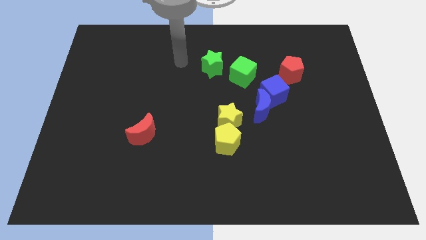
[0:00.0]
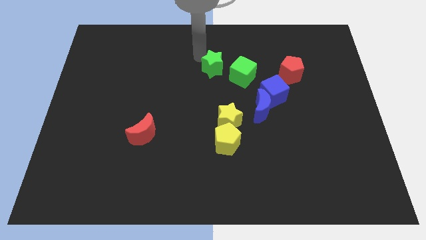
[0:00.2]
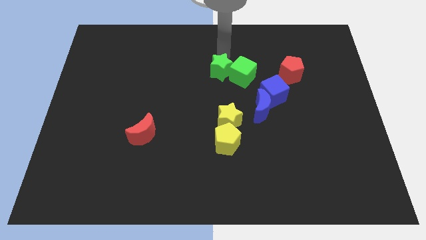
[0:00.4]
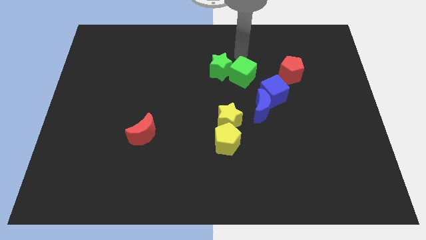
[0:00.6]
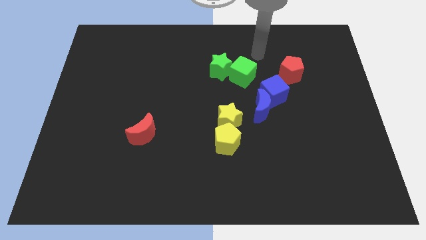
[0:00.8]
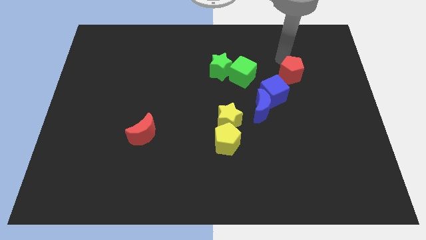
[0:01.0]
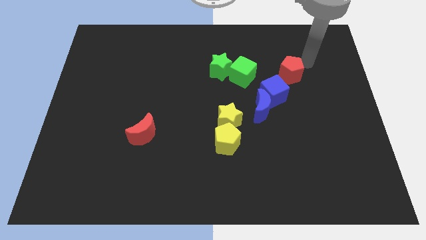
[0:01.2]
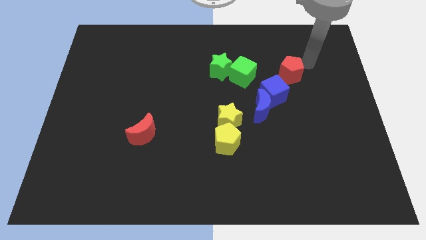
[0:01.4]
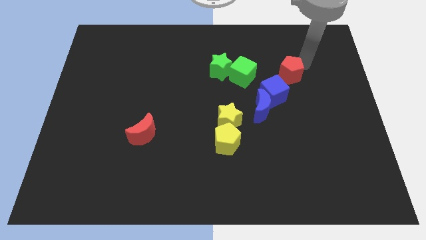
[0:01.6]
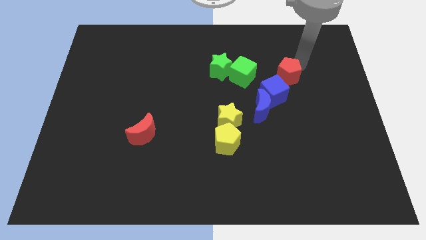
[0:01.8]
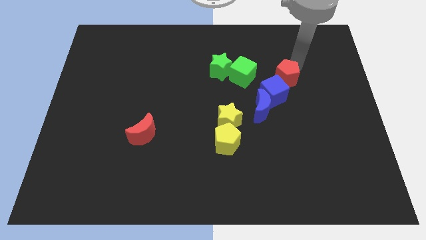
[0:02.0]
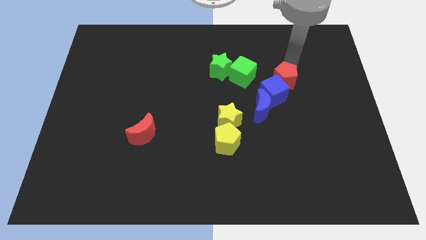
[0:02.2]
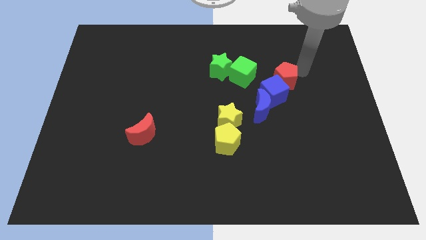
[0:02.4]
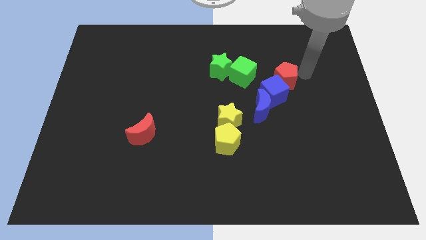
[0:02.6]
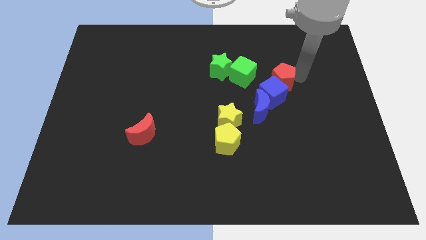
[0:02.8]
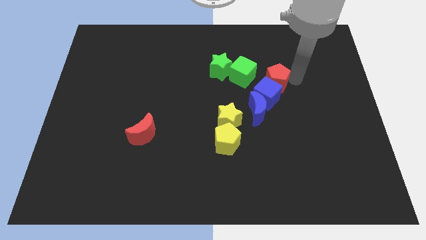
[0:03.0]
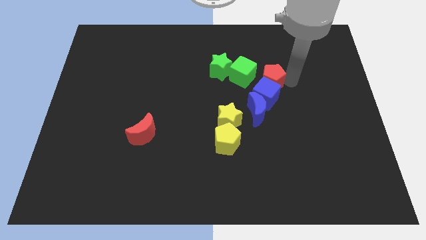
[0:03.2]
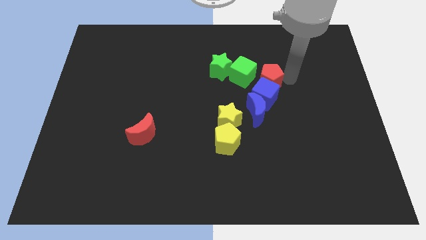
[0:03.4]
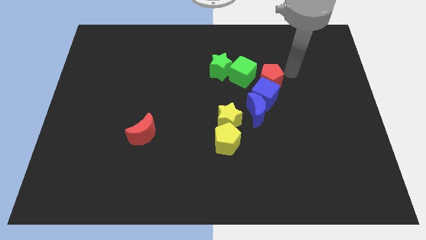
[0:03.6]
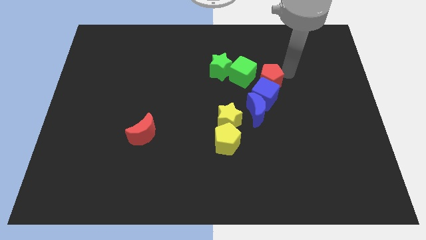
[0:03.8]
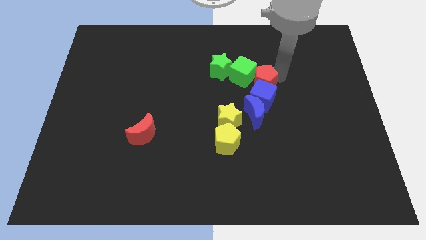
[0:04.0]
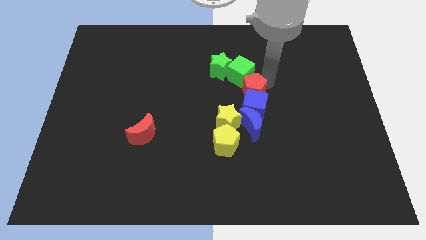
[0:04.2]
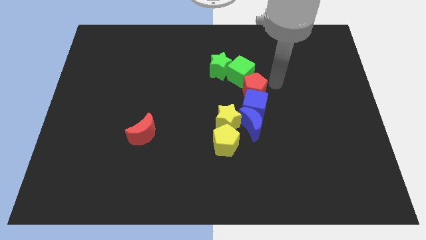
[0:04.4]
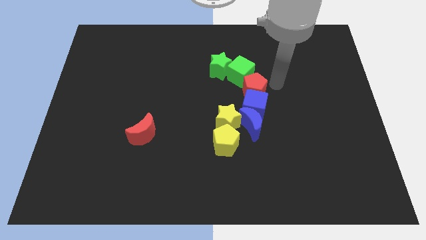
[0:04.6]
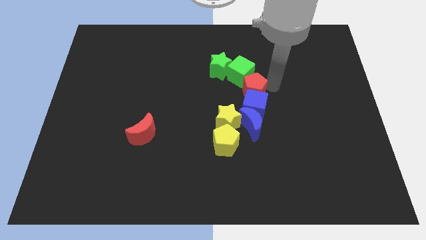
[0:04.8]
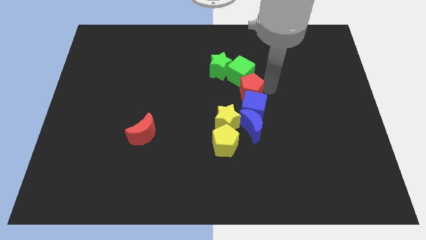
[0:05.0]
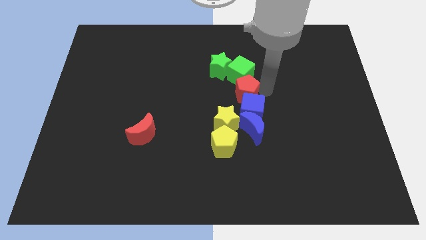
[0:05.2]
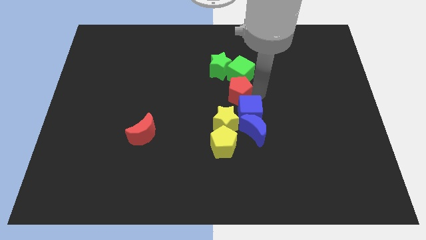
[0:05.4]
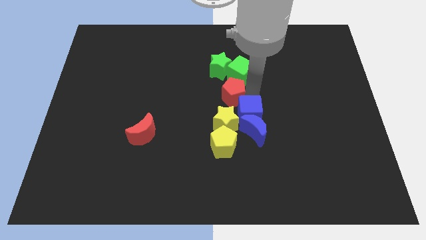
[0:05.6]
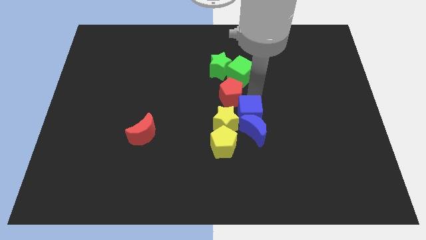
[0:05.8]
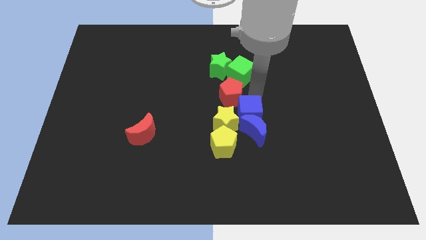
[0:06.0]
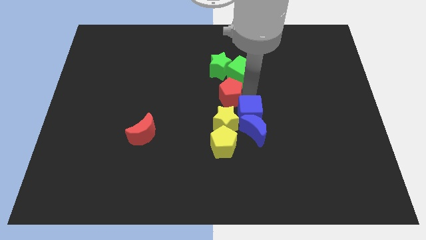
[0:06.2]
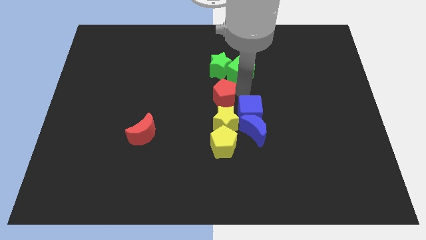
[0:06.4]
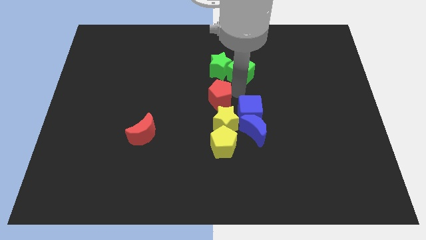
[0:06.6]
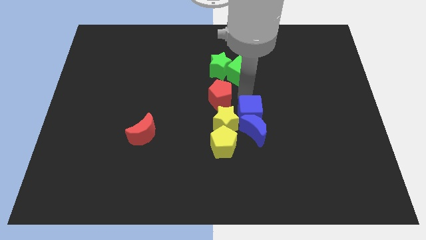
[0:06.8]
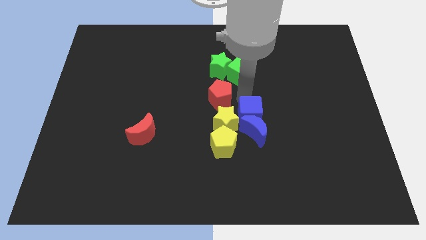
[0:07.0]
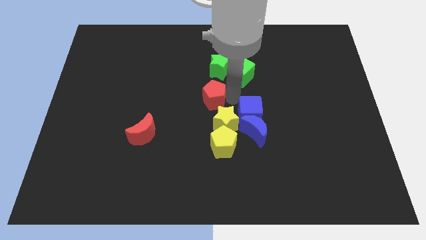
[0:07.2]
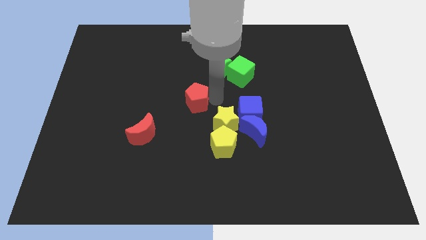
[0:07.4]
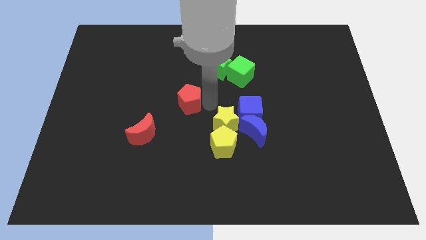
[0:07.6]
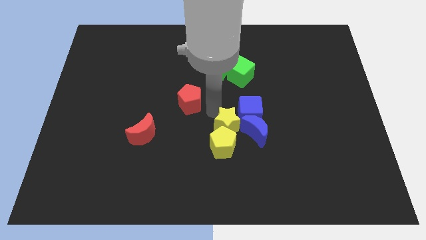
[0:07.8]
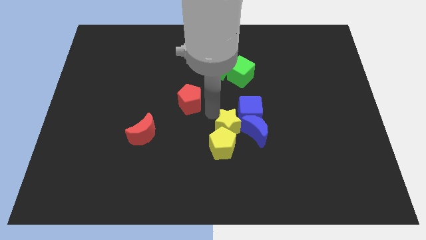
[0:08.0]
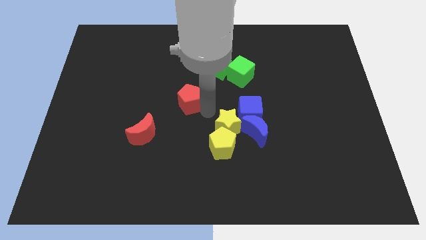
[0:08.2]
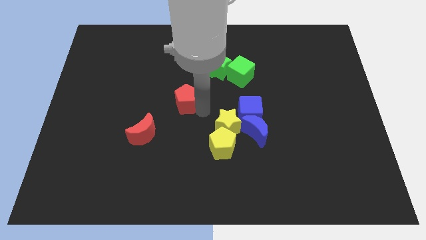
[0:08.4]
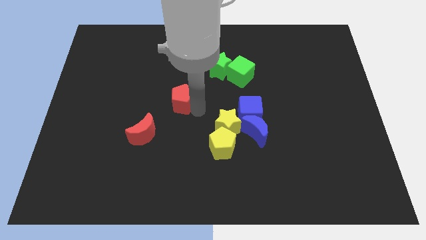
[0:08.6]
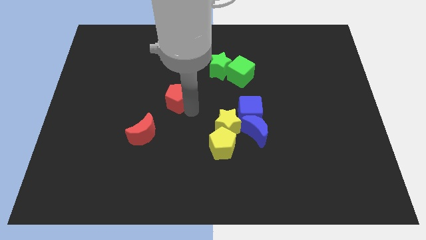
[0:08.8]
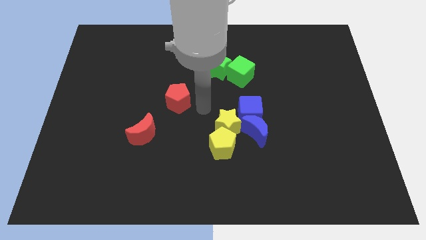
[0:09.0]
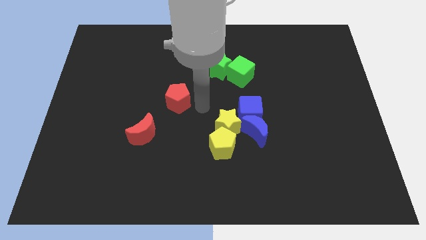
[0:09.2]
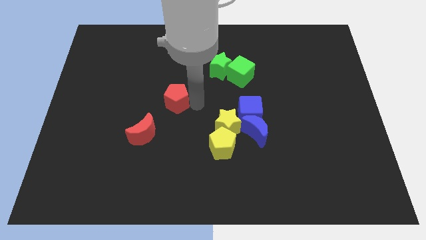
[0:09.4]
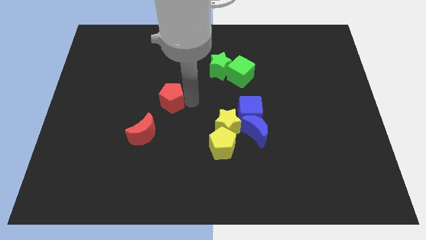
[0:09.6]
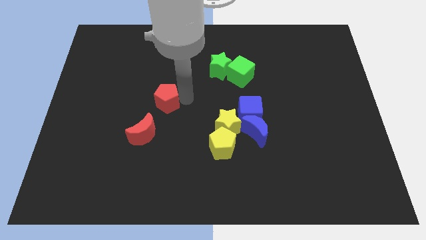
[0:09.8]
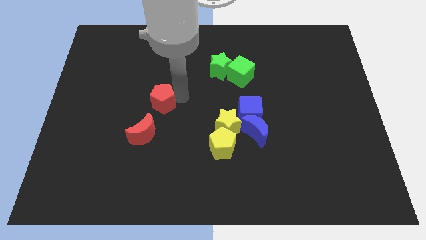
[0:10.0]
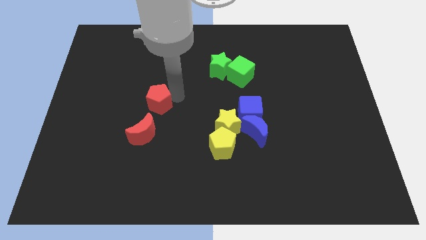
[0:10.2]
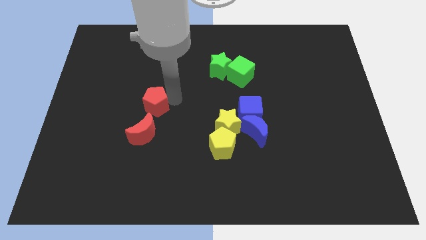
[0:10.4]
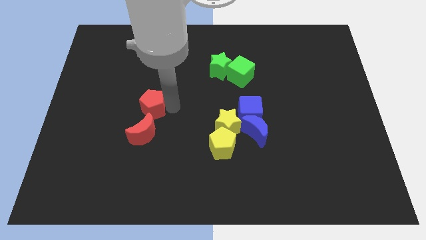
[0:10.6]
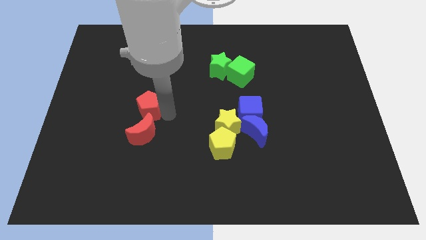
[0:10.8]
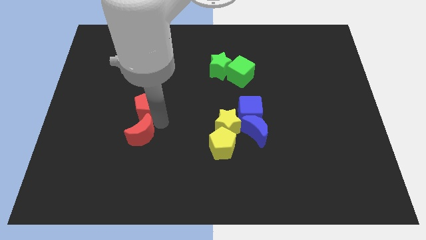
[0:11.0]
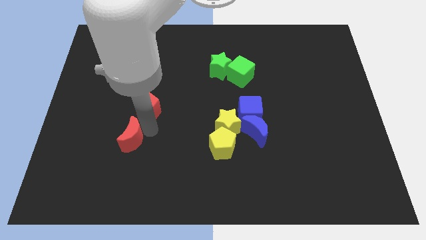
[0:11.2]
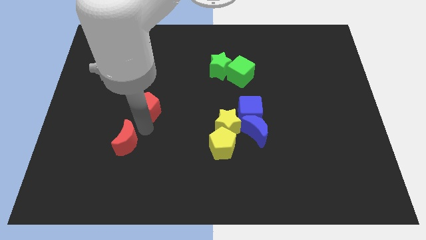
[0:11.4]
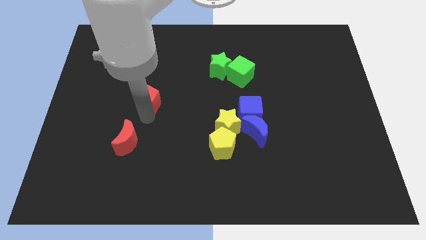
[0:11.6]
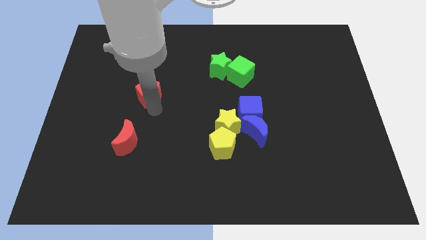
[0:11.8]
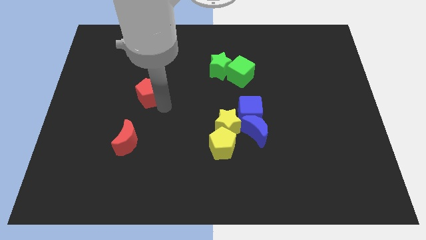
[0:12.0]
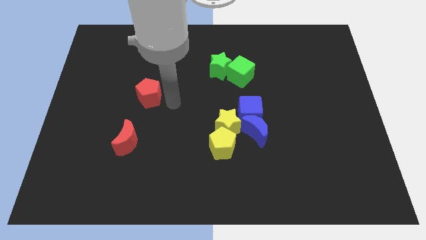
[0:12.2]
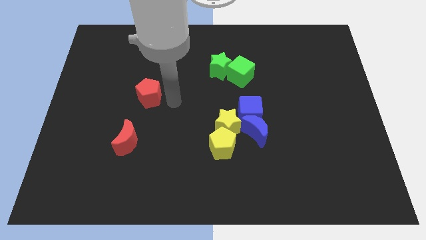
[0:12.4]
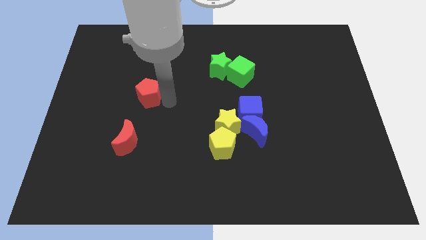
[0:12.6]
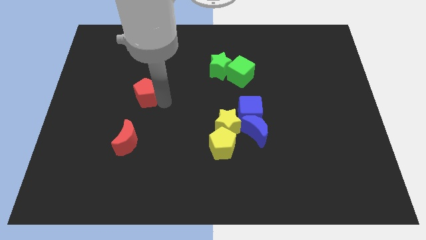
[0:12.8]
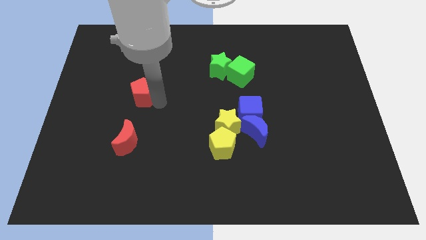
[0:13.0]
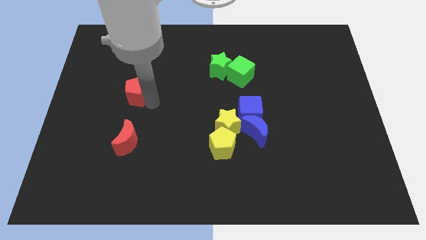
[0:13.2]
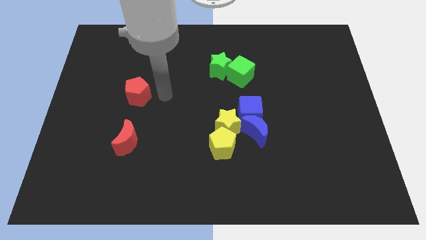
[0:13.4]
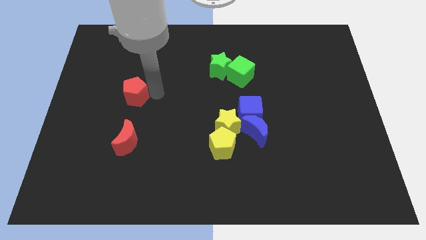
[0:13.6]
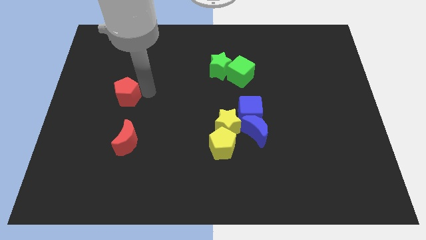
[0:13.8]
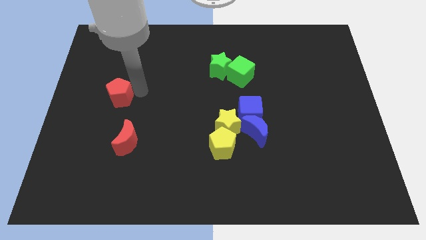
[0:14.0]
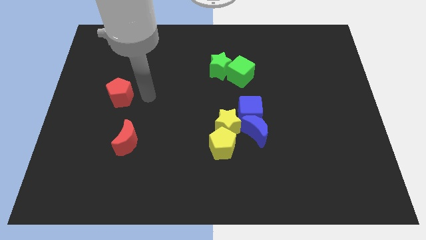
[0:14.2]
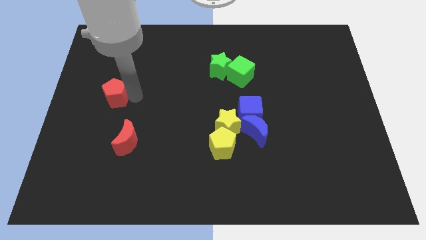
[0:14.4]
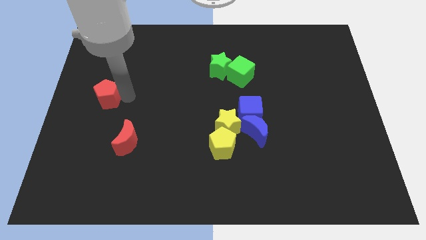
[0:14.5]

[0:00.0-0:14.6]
move the red pentagon to the left side of the board
